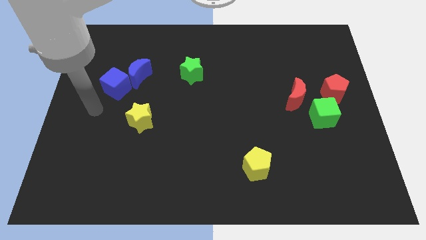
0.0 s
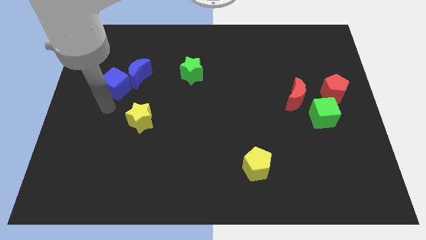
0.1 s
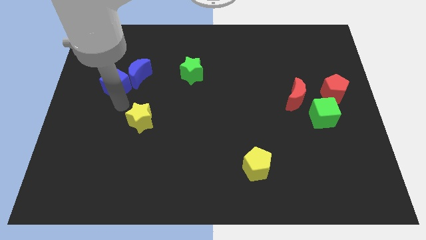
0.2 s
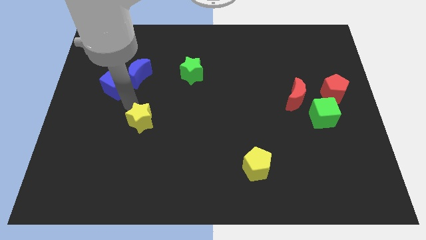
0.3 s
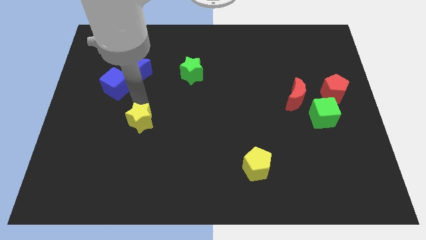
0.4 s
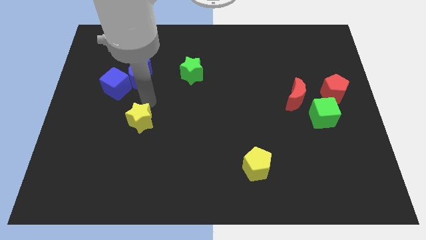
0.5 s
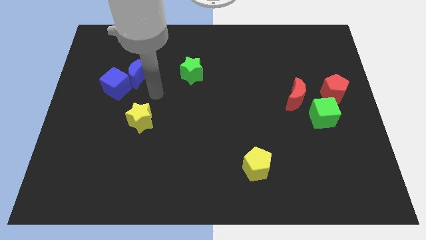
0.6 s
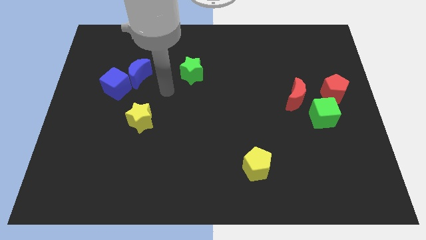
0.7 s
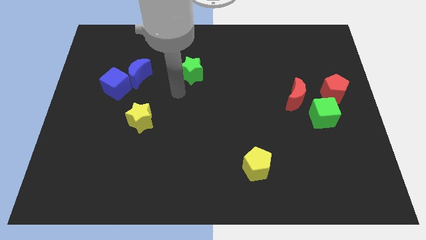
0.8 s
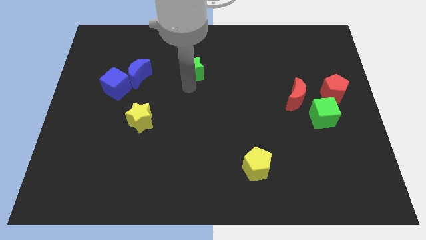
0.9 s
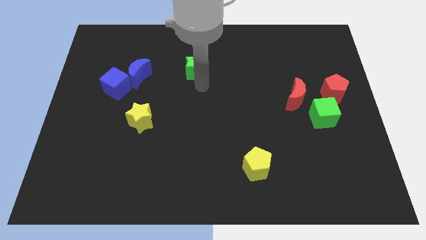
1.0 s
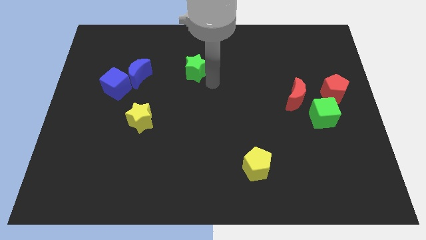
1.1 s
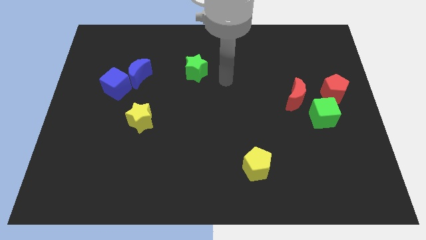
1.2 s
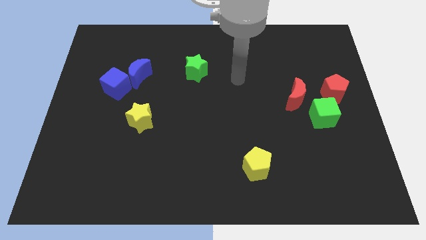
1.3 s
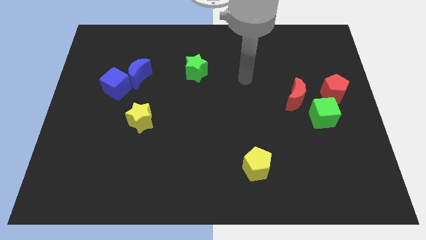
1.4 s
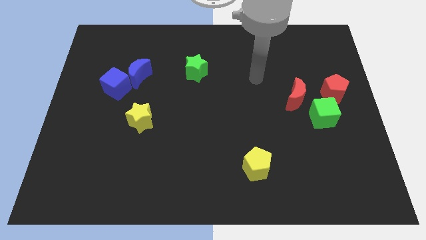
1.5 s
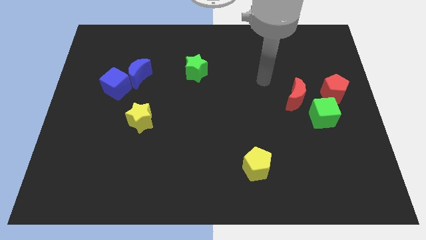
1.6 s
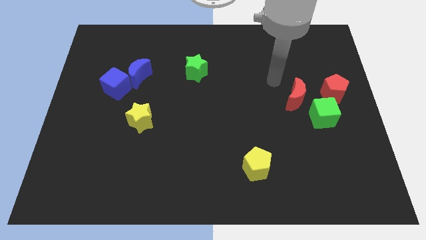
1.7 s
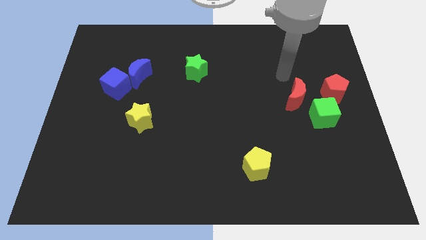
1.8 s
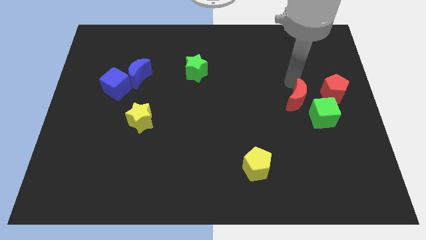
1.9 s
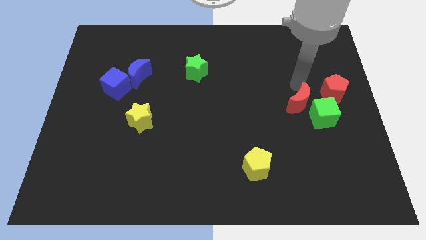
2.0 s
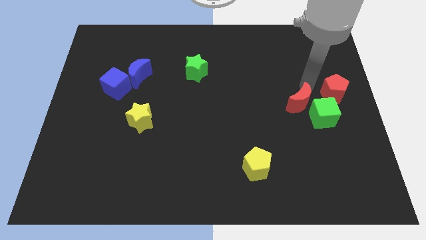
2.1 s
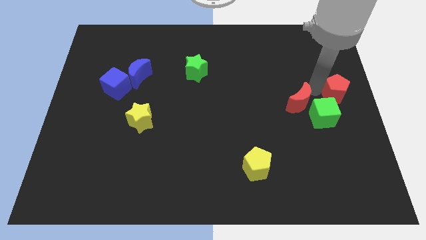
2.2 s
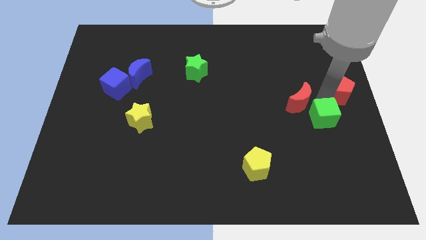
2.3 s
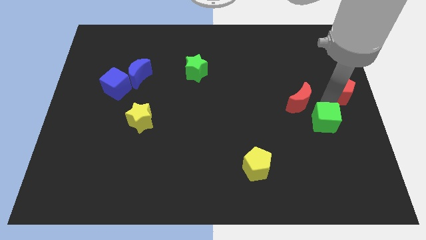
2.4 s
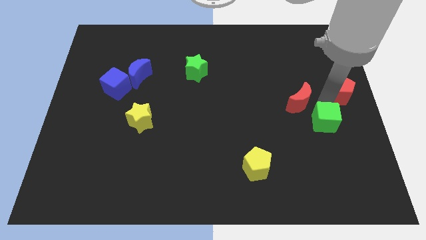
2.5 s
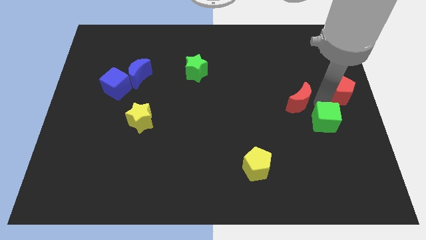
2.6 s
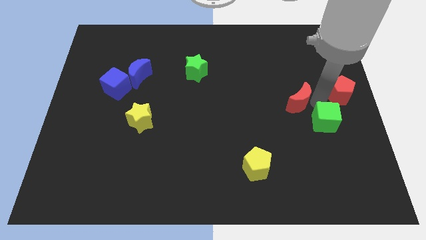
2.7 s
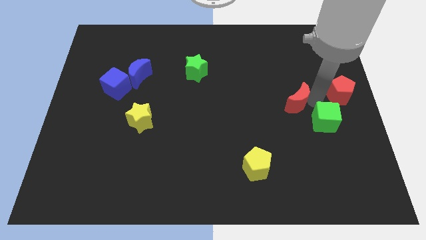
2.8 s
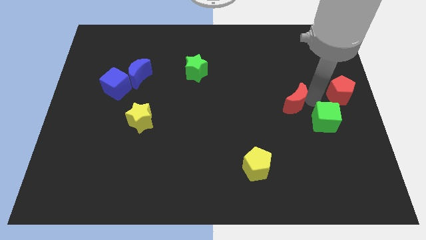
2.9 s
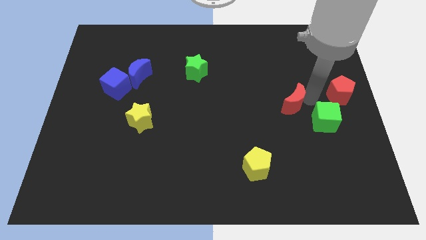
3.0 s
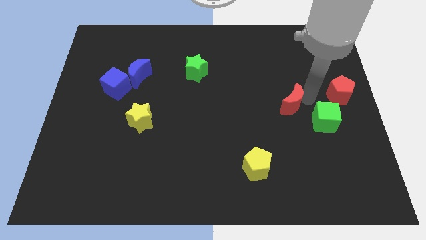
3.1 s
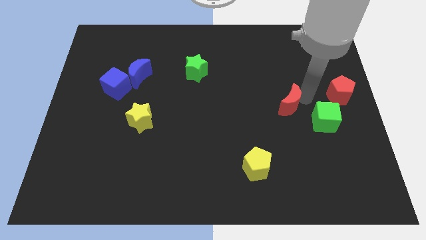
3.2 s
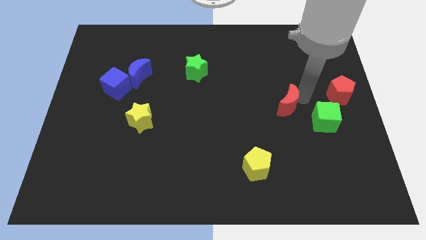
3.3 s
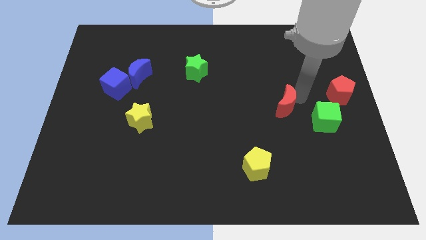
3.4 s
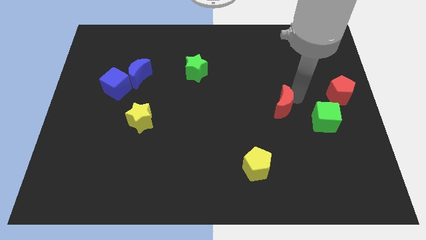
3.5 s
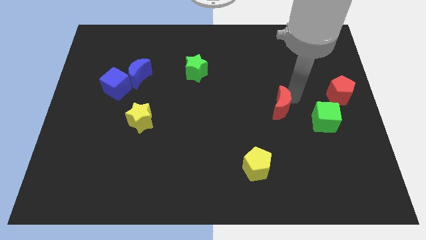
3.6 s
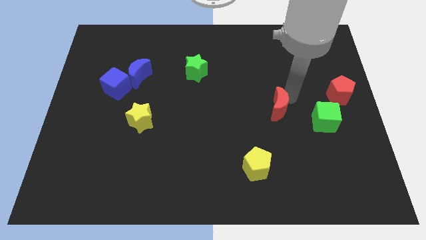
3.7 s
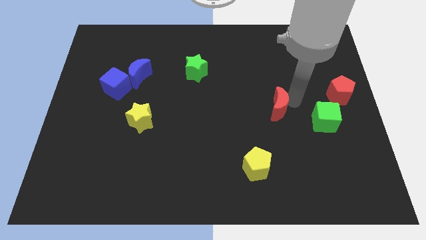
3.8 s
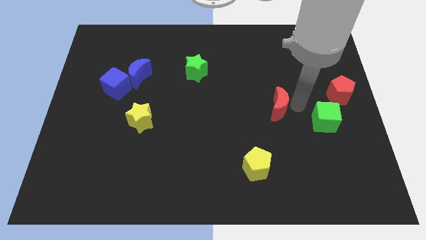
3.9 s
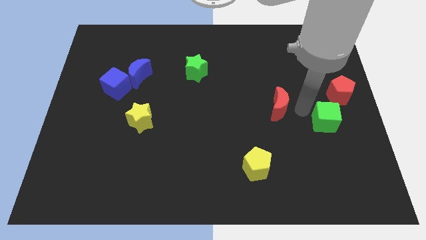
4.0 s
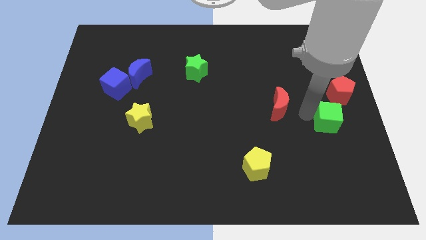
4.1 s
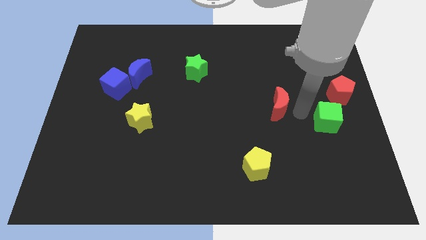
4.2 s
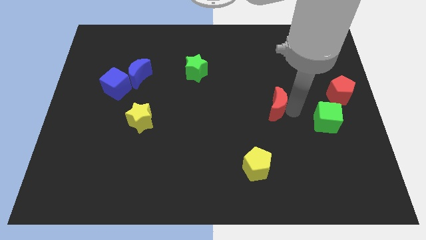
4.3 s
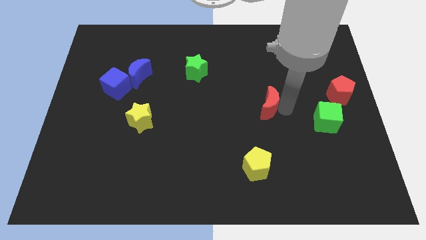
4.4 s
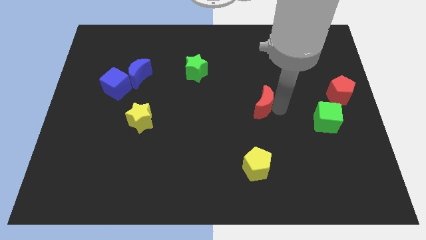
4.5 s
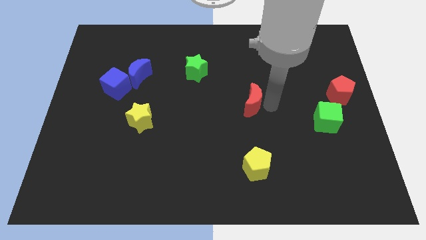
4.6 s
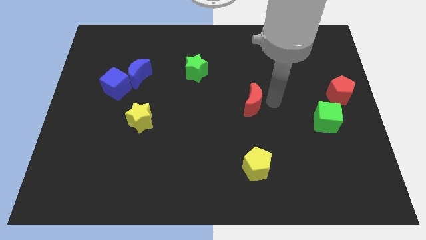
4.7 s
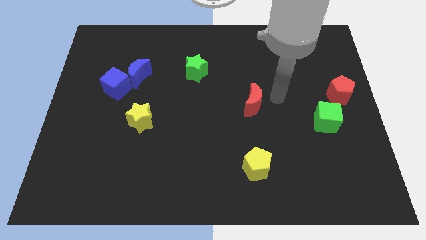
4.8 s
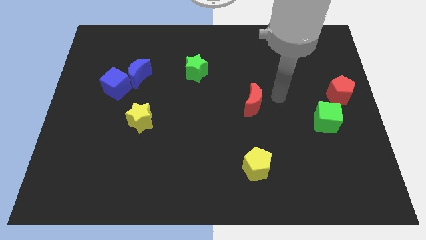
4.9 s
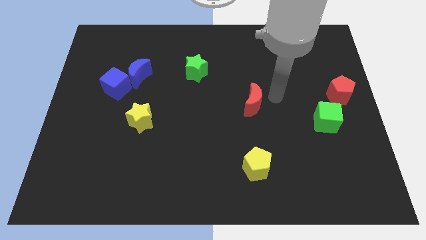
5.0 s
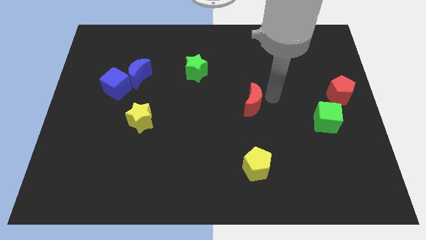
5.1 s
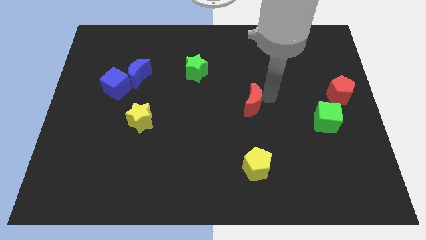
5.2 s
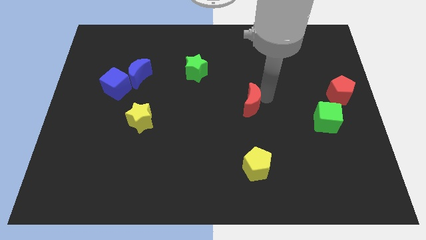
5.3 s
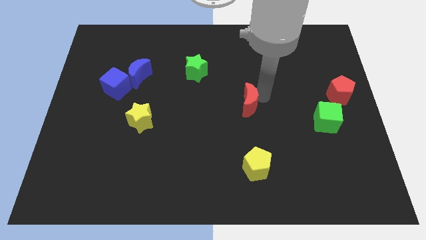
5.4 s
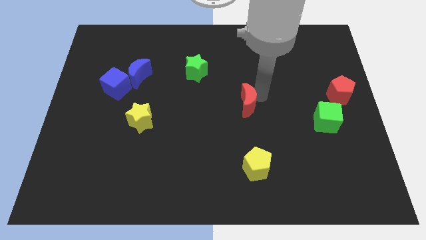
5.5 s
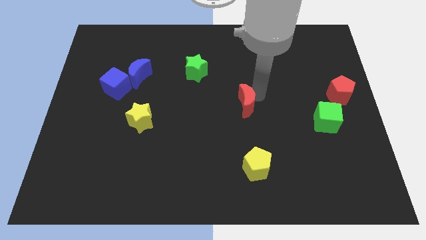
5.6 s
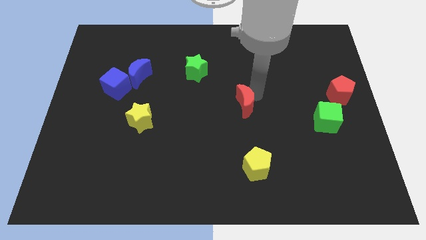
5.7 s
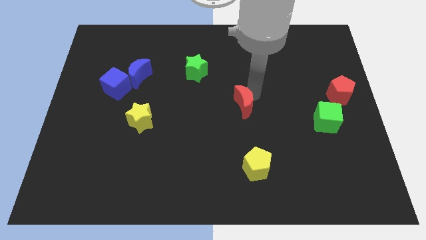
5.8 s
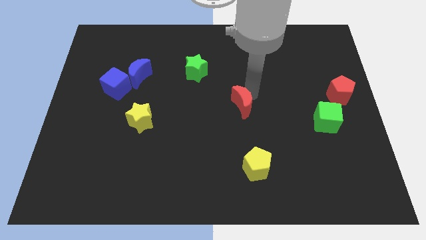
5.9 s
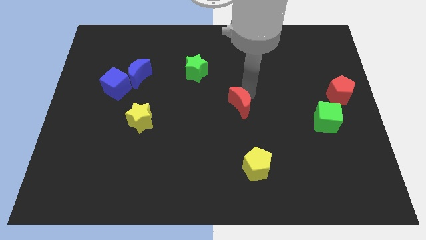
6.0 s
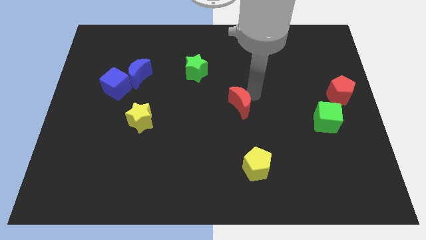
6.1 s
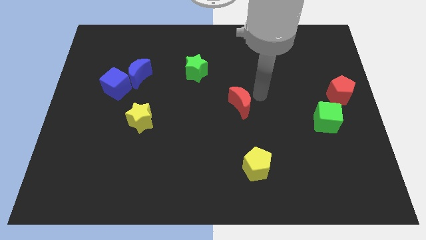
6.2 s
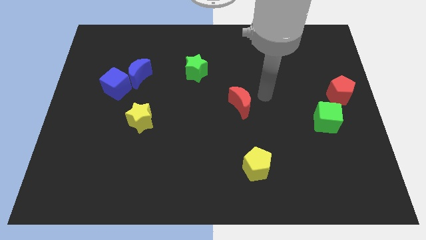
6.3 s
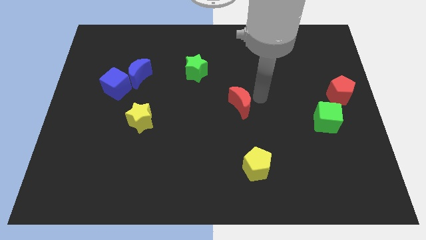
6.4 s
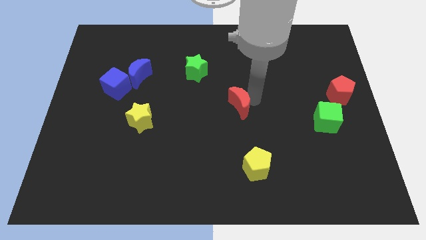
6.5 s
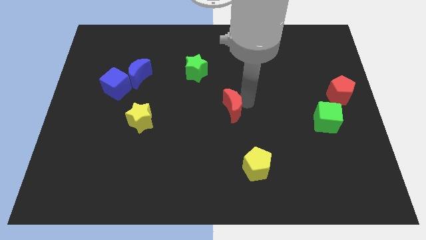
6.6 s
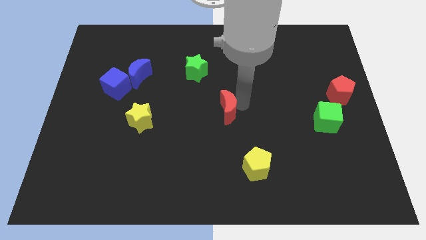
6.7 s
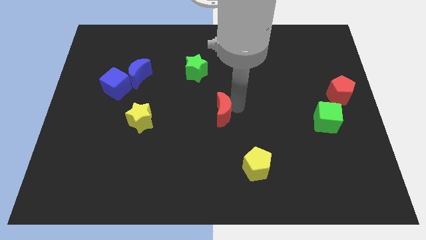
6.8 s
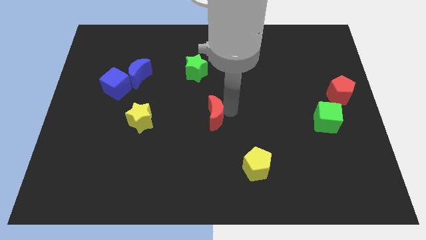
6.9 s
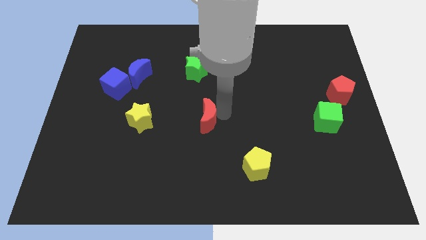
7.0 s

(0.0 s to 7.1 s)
put the red moon to the right side of the yellow star
